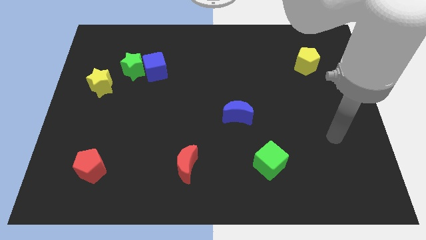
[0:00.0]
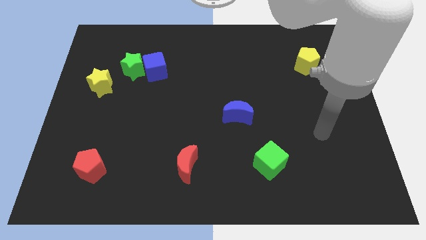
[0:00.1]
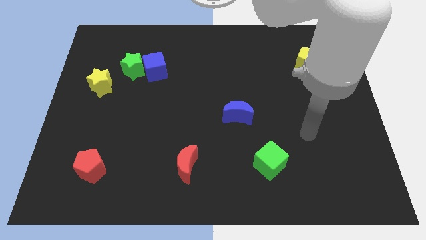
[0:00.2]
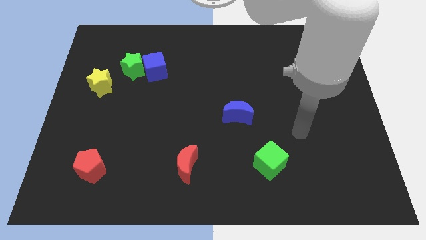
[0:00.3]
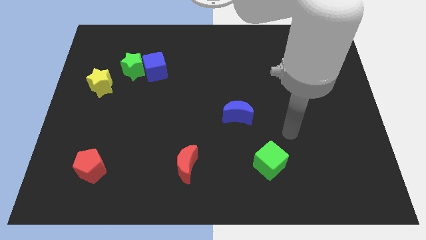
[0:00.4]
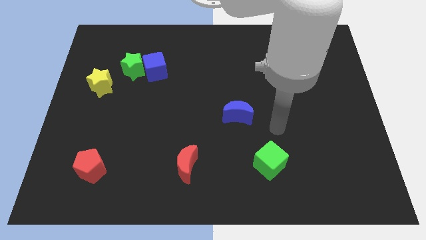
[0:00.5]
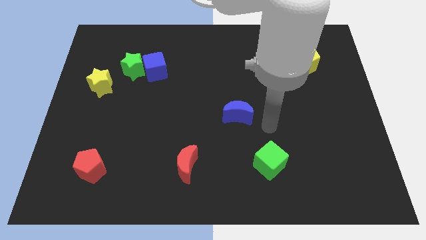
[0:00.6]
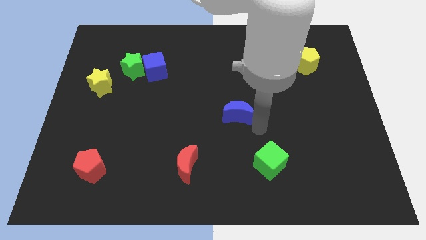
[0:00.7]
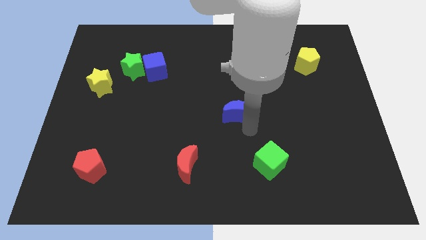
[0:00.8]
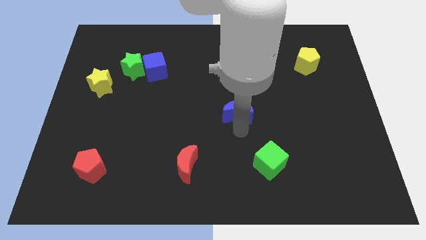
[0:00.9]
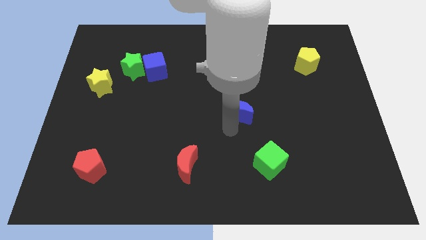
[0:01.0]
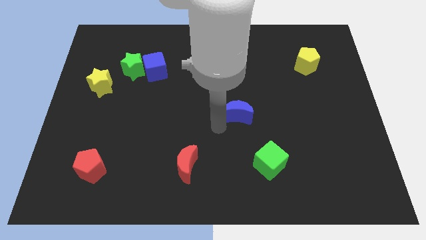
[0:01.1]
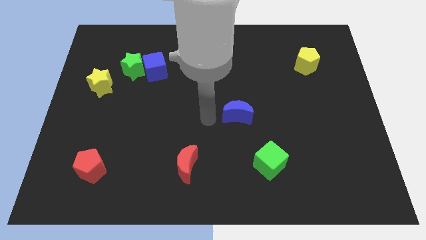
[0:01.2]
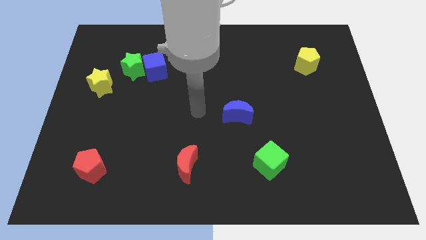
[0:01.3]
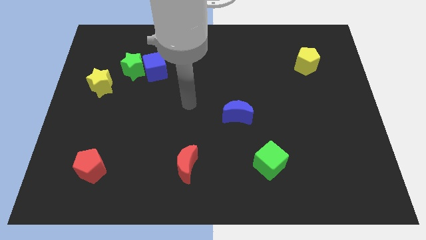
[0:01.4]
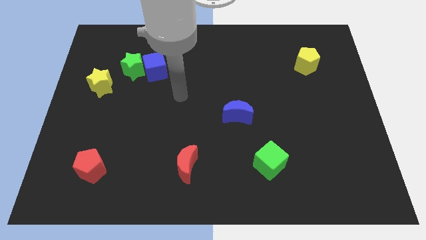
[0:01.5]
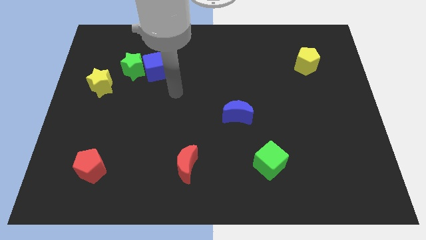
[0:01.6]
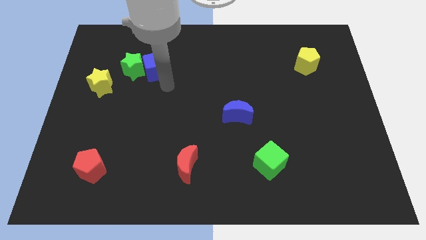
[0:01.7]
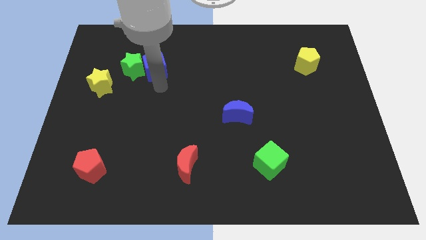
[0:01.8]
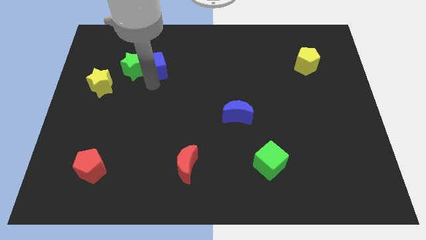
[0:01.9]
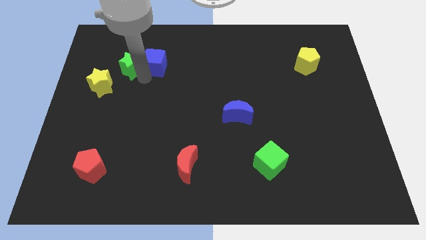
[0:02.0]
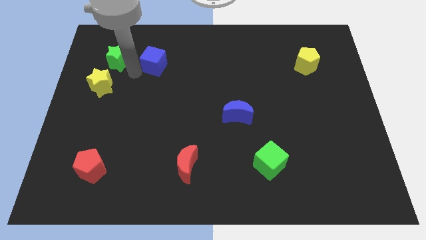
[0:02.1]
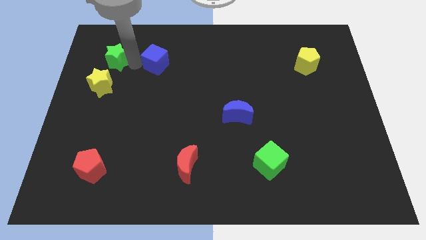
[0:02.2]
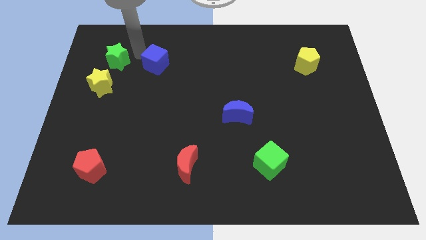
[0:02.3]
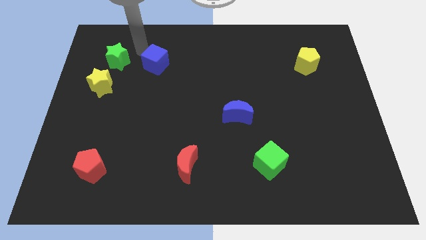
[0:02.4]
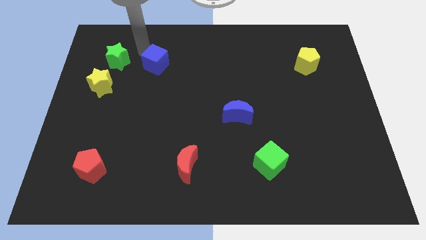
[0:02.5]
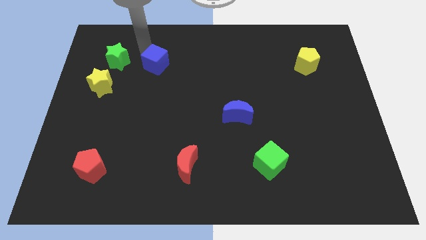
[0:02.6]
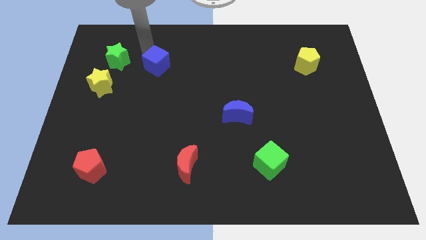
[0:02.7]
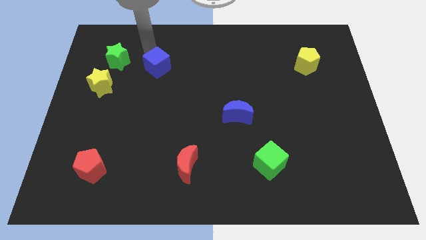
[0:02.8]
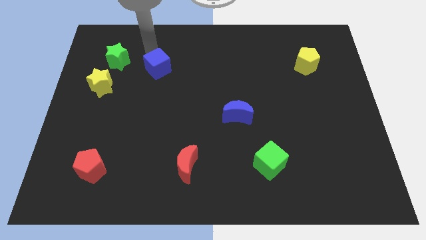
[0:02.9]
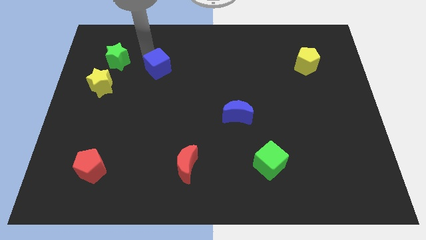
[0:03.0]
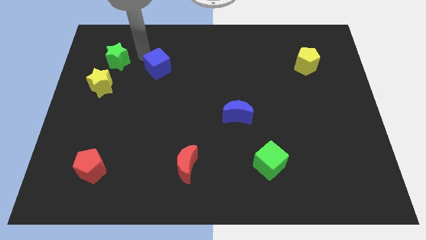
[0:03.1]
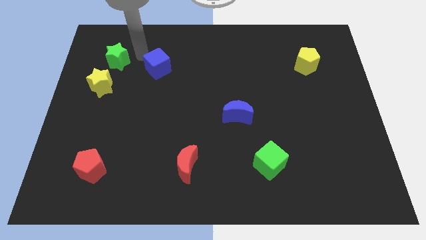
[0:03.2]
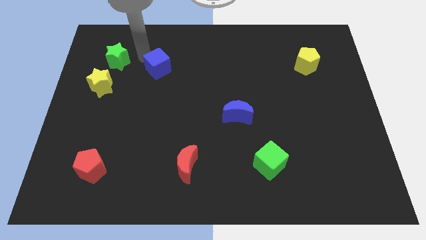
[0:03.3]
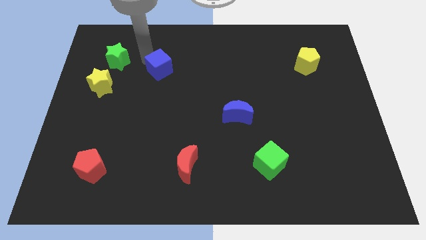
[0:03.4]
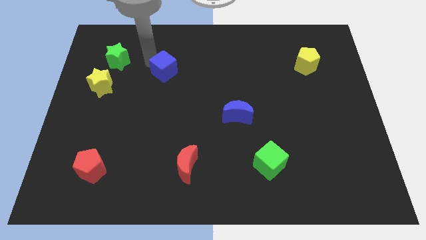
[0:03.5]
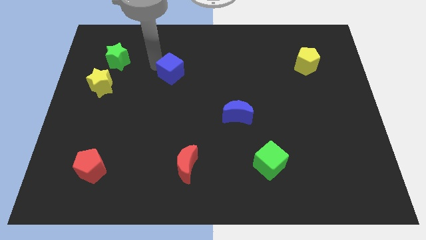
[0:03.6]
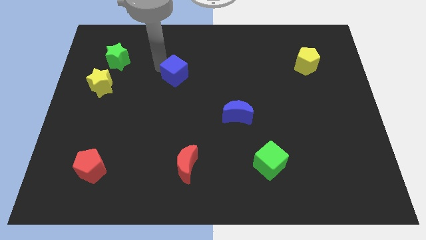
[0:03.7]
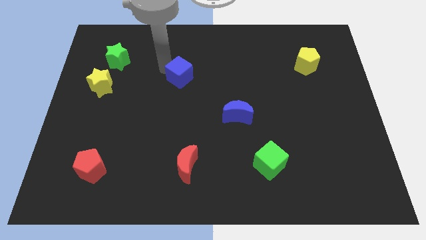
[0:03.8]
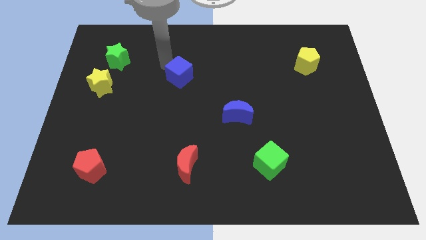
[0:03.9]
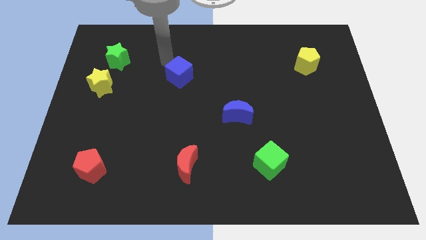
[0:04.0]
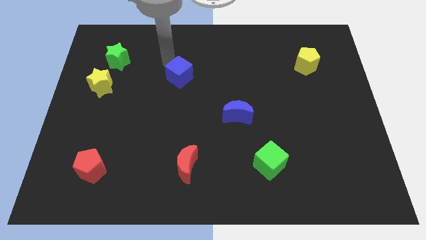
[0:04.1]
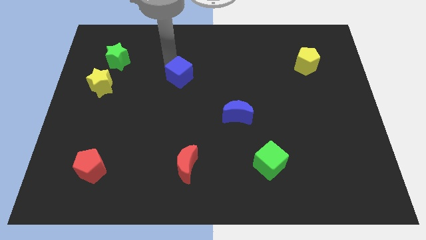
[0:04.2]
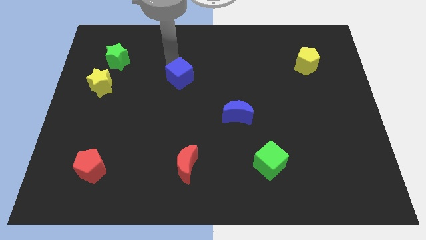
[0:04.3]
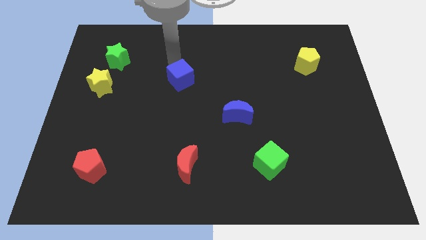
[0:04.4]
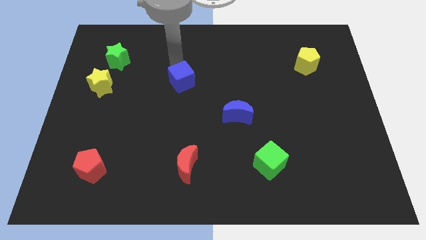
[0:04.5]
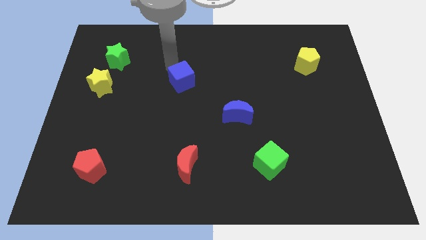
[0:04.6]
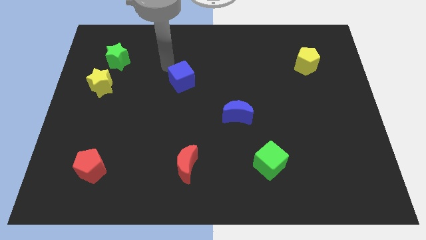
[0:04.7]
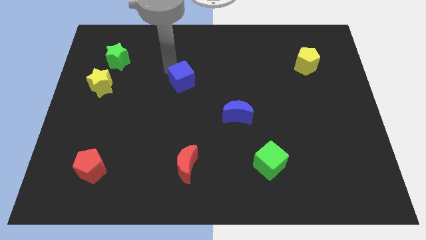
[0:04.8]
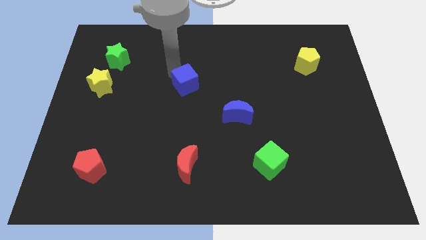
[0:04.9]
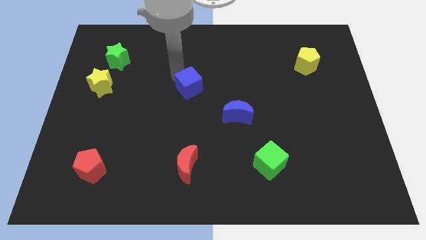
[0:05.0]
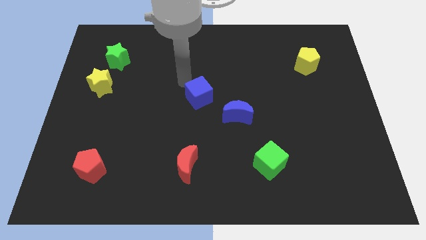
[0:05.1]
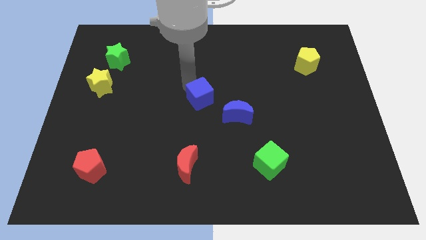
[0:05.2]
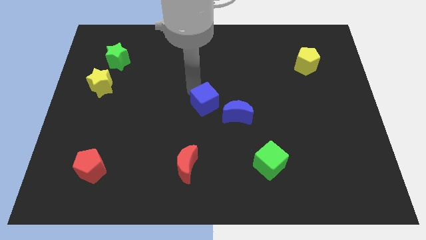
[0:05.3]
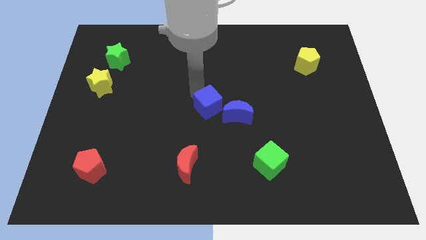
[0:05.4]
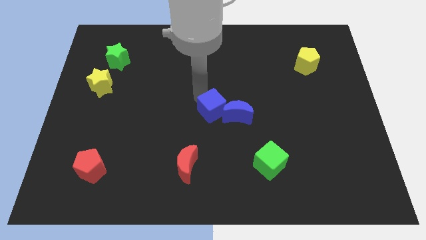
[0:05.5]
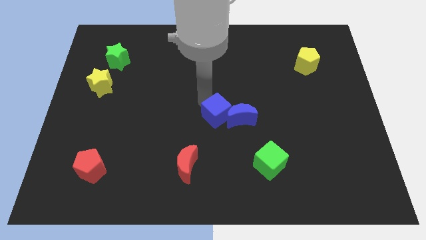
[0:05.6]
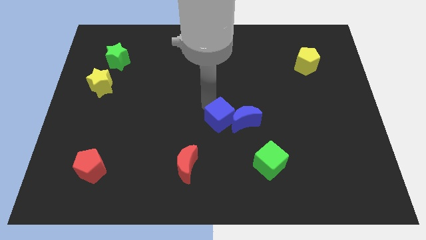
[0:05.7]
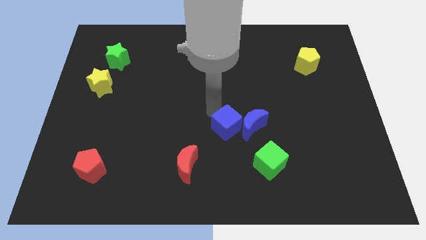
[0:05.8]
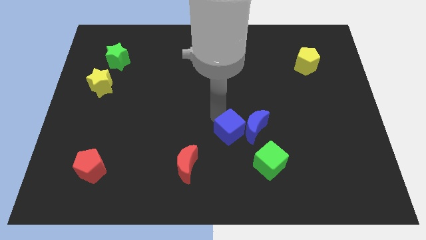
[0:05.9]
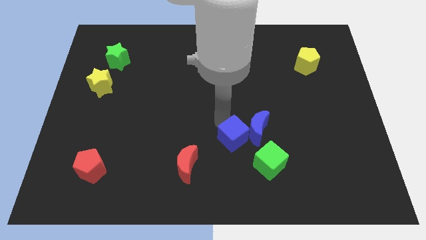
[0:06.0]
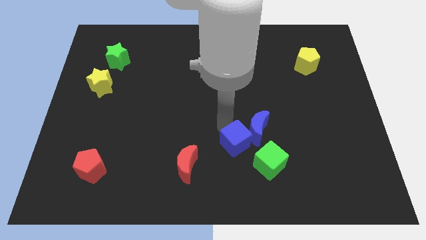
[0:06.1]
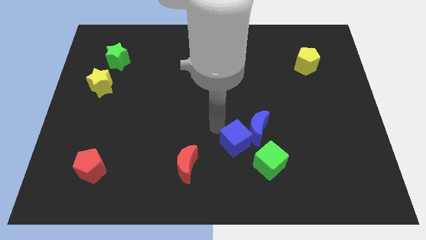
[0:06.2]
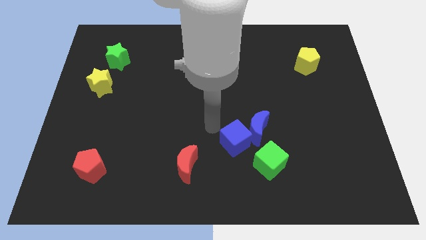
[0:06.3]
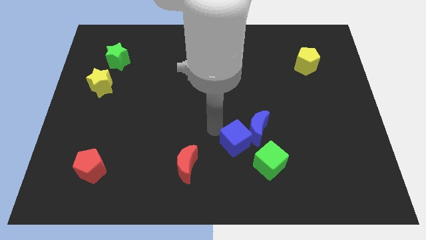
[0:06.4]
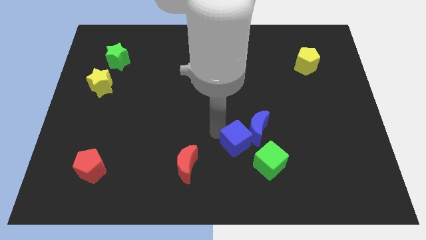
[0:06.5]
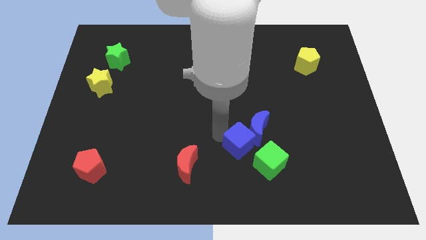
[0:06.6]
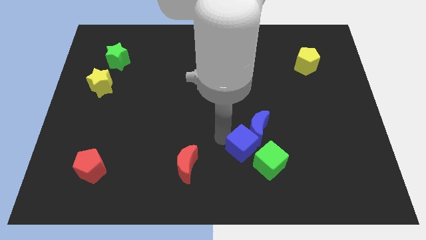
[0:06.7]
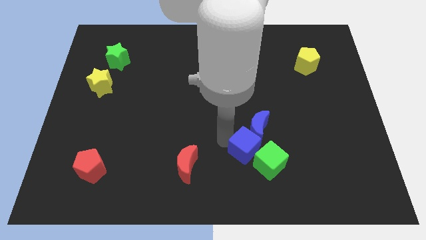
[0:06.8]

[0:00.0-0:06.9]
push the blue cube close to the green cube

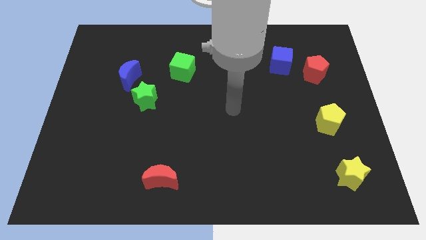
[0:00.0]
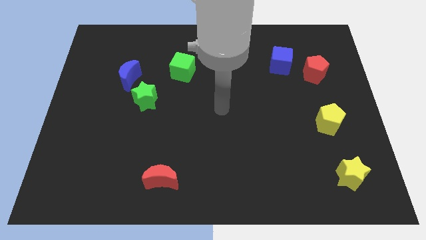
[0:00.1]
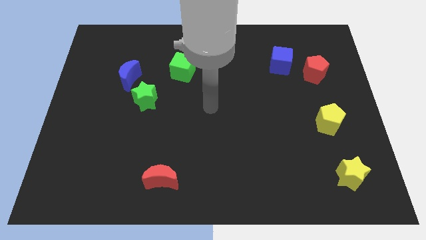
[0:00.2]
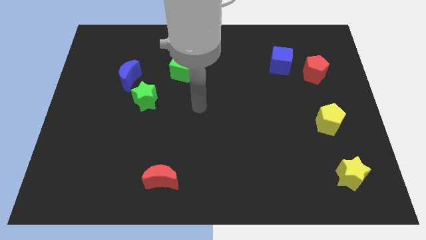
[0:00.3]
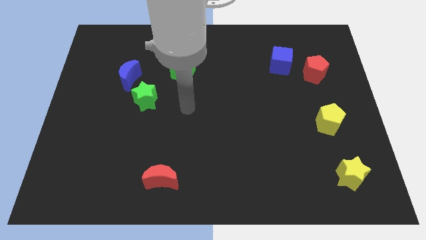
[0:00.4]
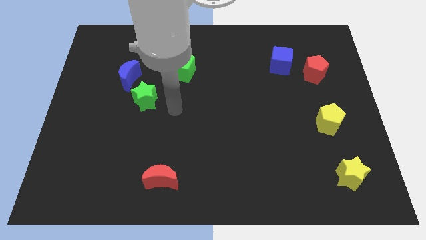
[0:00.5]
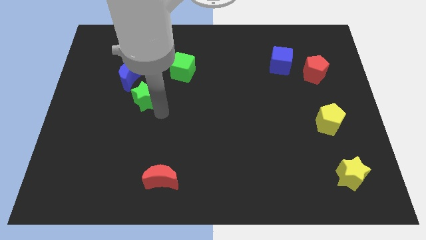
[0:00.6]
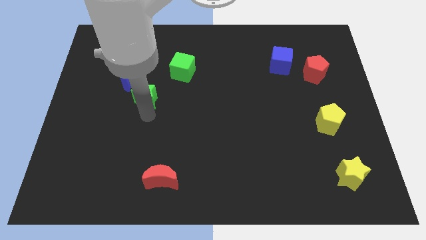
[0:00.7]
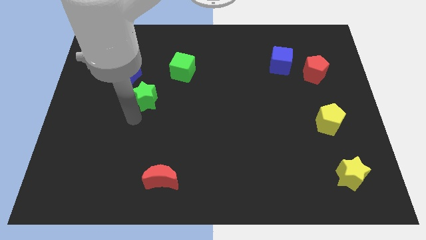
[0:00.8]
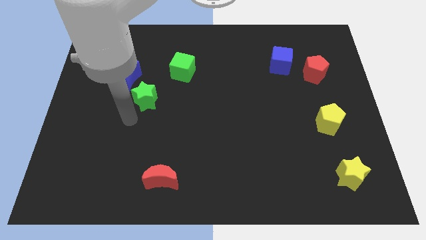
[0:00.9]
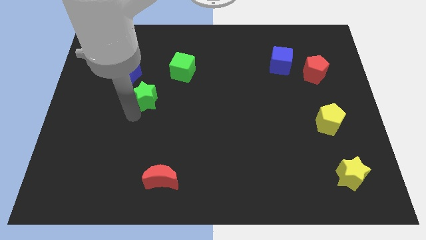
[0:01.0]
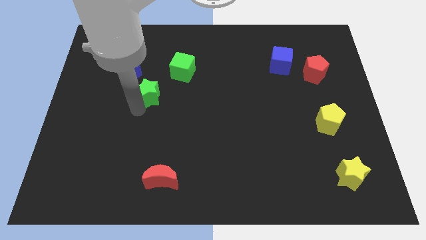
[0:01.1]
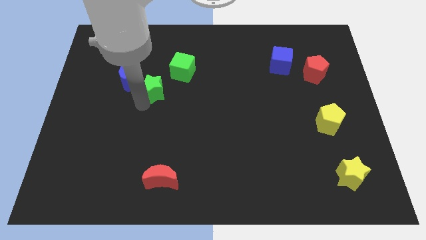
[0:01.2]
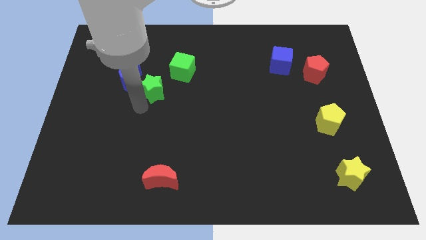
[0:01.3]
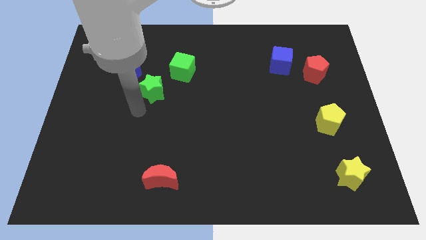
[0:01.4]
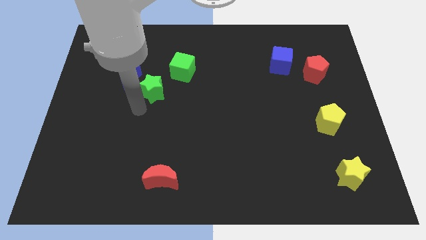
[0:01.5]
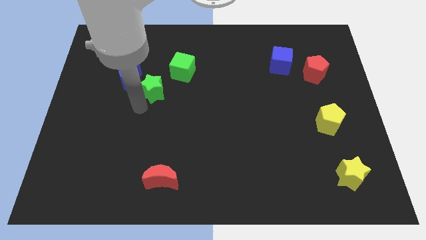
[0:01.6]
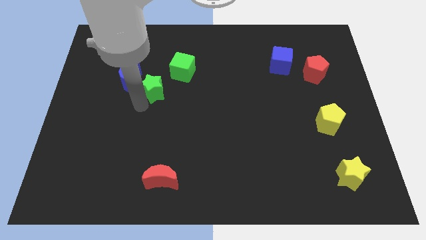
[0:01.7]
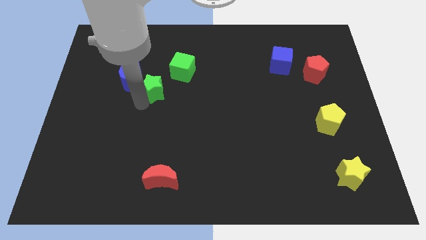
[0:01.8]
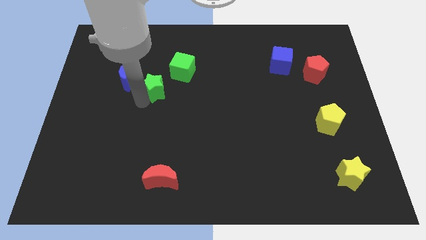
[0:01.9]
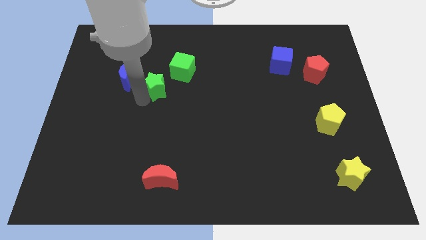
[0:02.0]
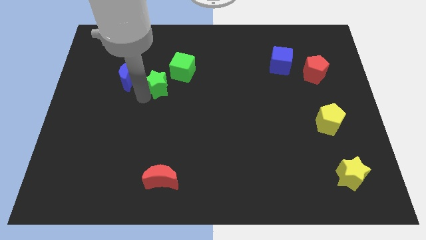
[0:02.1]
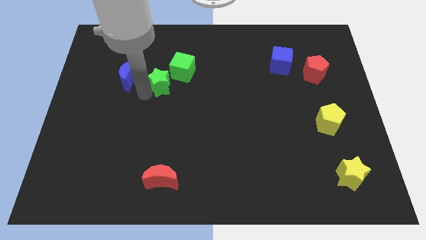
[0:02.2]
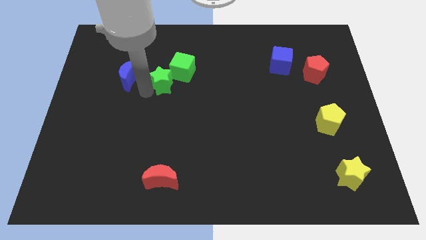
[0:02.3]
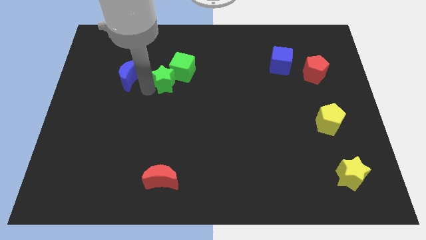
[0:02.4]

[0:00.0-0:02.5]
push the green star towards the green cube
